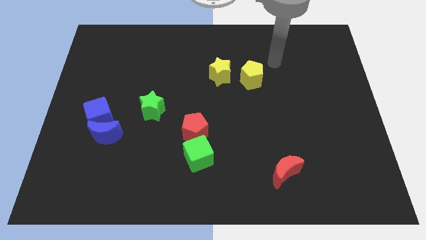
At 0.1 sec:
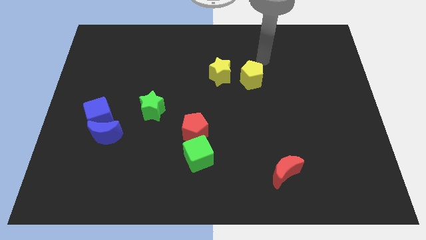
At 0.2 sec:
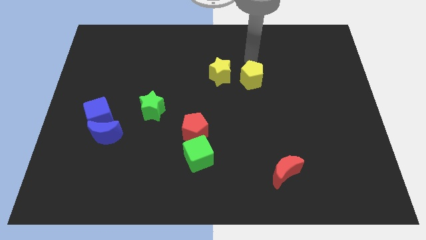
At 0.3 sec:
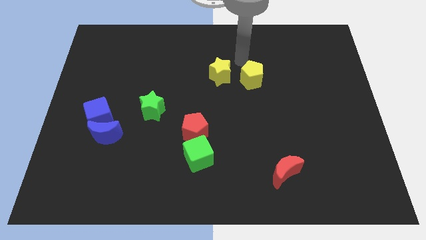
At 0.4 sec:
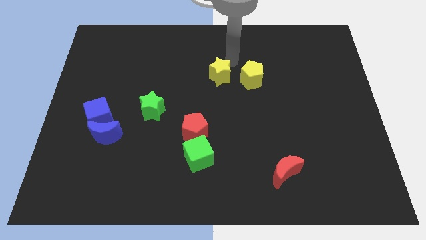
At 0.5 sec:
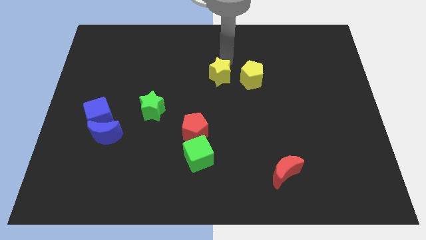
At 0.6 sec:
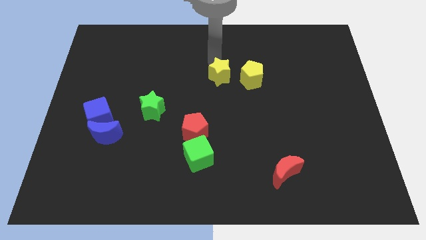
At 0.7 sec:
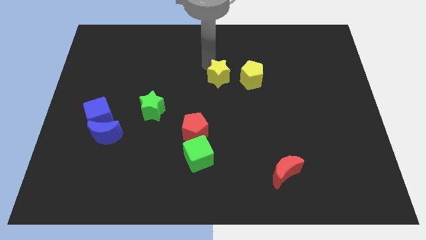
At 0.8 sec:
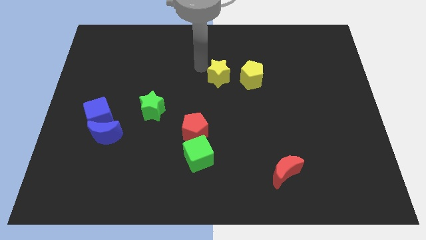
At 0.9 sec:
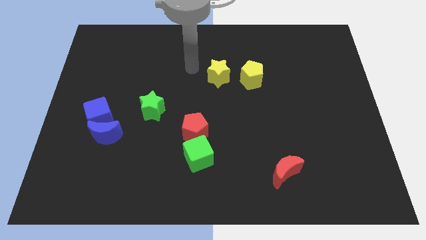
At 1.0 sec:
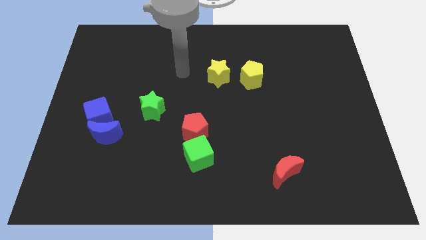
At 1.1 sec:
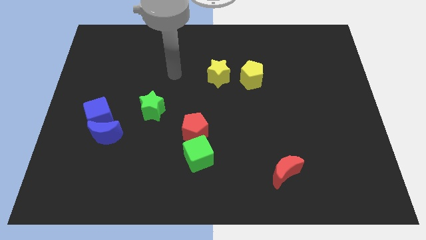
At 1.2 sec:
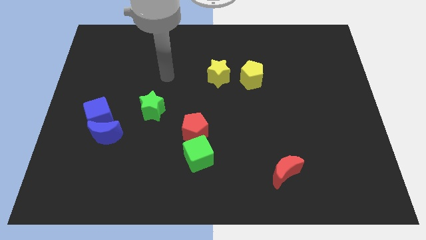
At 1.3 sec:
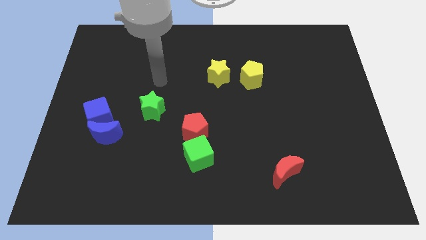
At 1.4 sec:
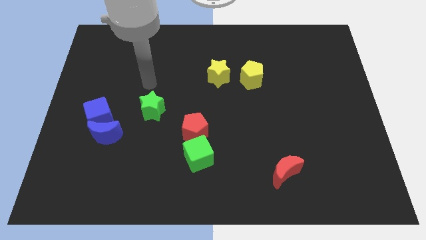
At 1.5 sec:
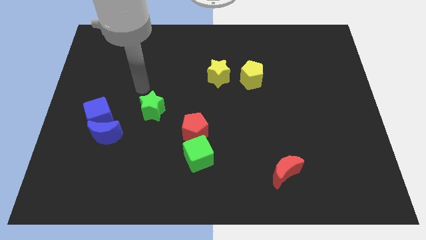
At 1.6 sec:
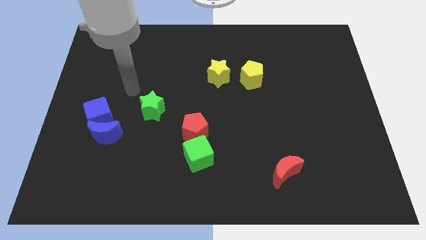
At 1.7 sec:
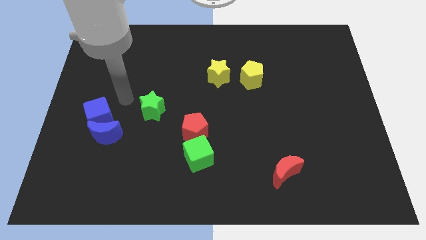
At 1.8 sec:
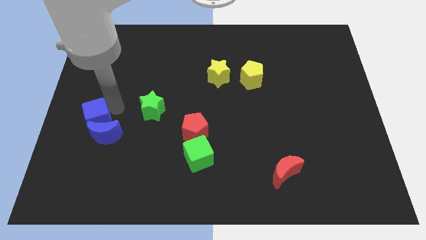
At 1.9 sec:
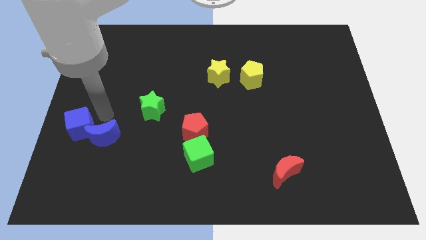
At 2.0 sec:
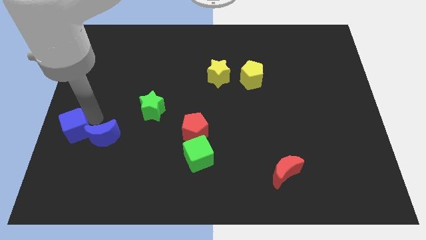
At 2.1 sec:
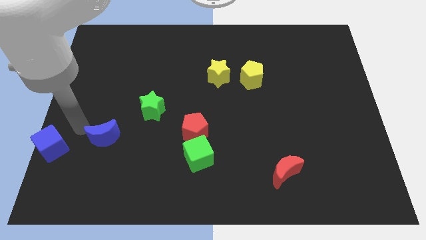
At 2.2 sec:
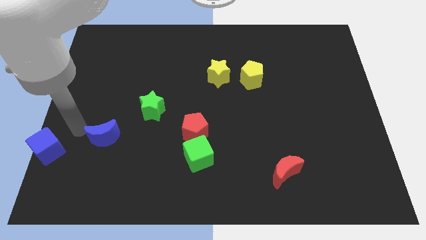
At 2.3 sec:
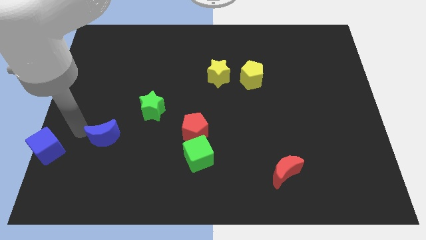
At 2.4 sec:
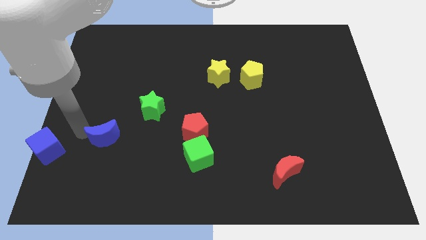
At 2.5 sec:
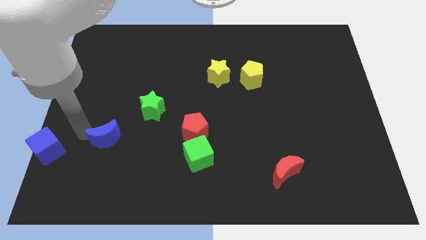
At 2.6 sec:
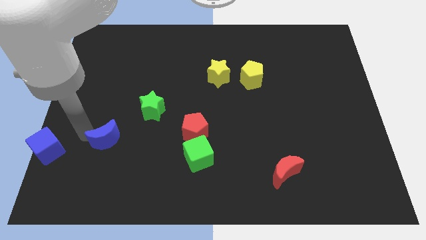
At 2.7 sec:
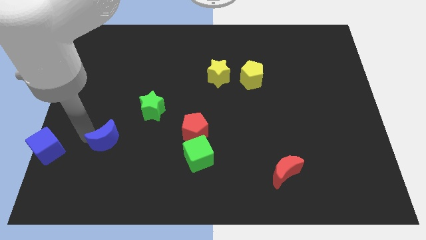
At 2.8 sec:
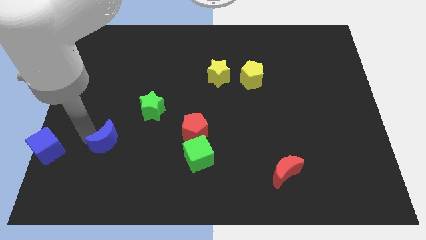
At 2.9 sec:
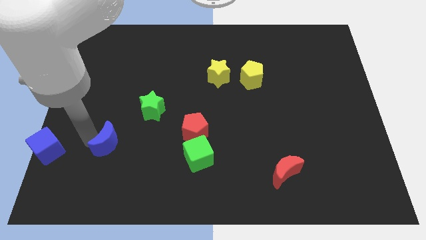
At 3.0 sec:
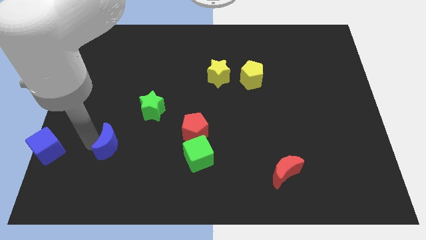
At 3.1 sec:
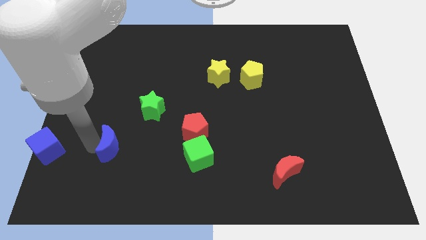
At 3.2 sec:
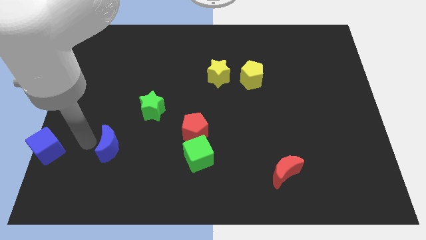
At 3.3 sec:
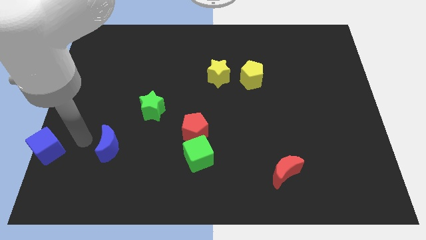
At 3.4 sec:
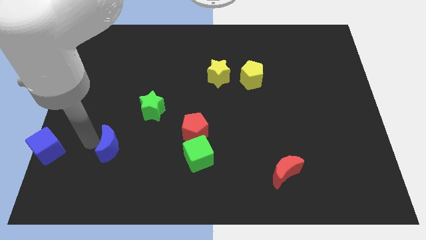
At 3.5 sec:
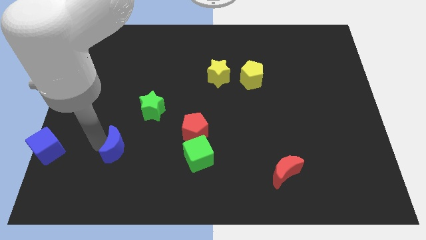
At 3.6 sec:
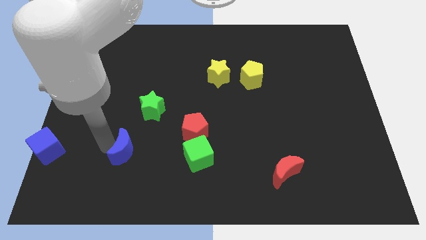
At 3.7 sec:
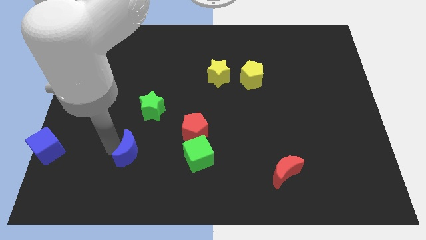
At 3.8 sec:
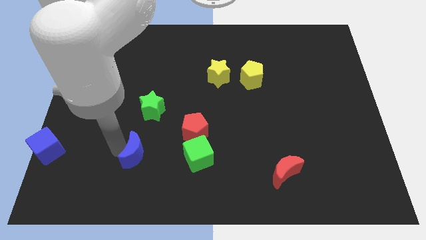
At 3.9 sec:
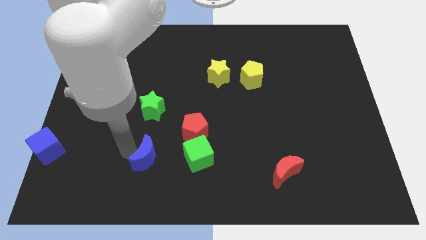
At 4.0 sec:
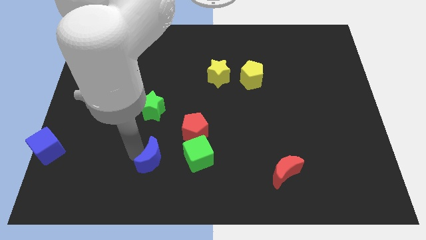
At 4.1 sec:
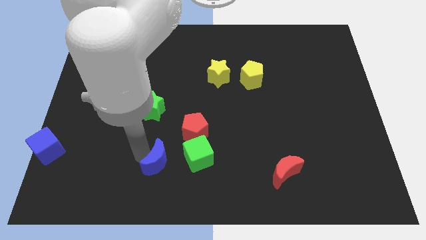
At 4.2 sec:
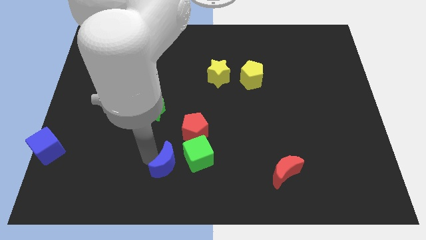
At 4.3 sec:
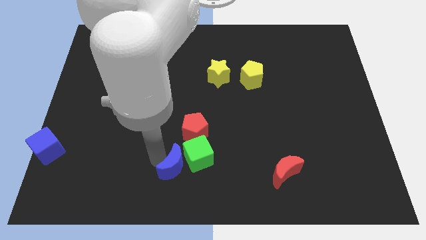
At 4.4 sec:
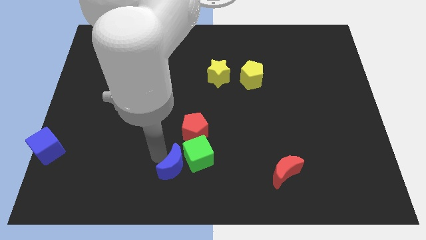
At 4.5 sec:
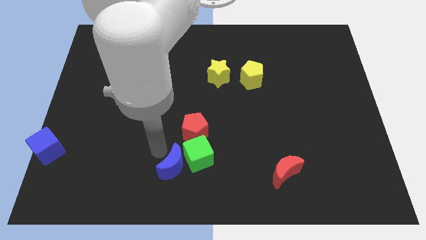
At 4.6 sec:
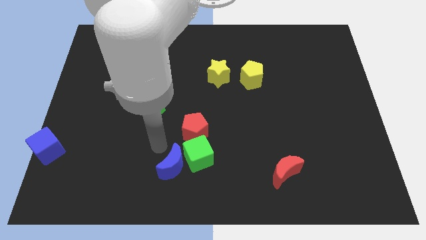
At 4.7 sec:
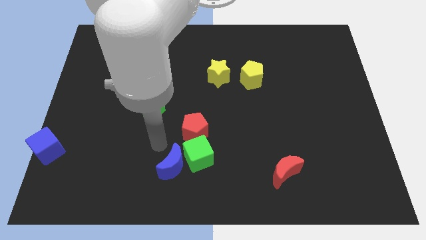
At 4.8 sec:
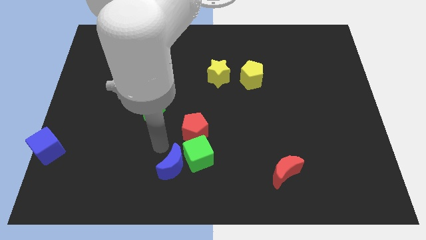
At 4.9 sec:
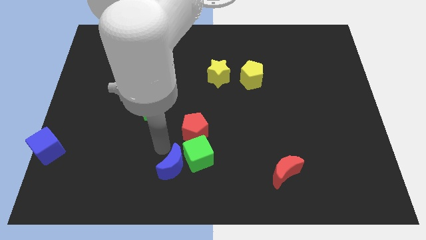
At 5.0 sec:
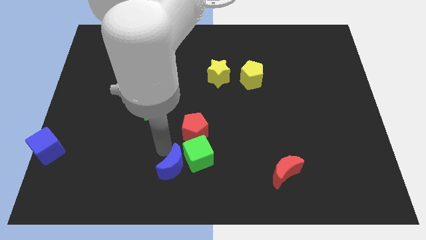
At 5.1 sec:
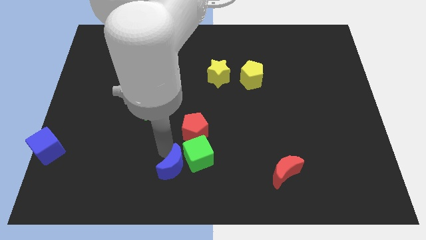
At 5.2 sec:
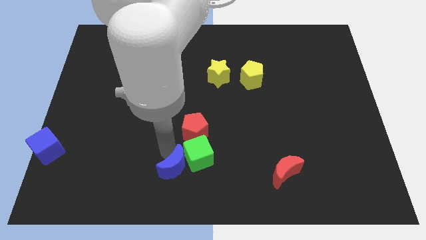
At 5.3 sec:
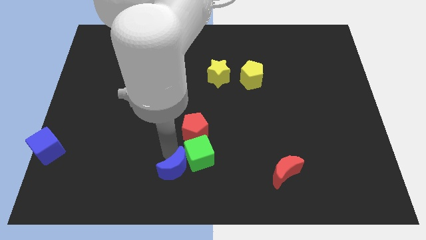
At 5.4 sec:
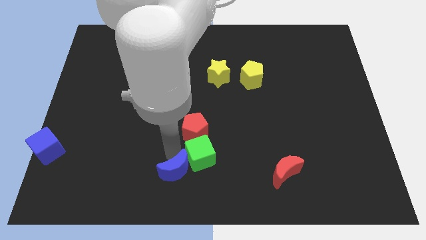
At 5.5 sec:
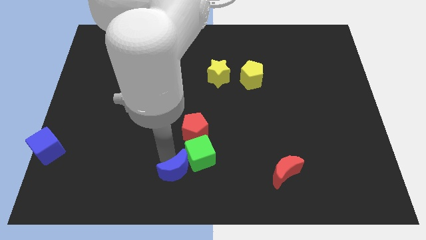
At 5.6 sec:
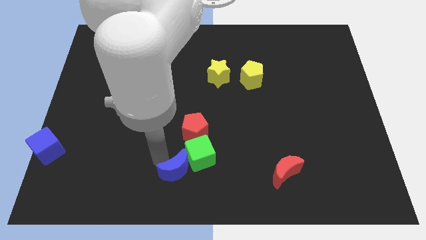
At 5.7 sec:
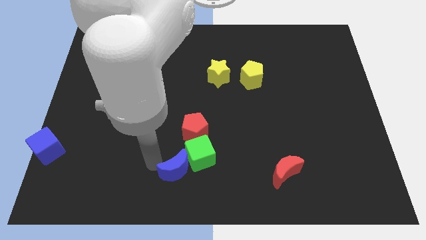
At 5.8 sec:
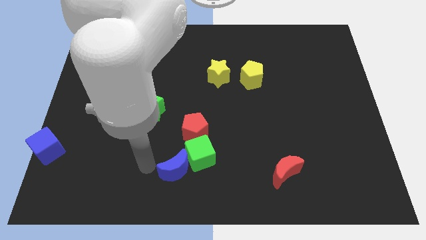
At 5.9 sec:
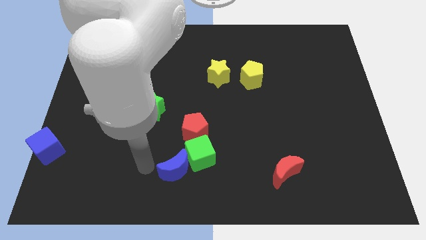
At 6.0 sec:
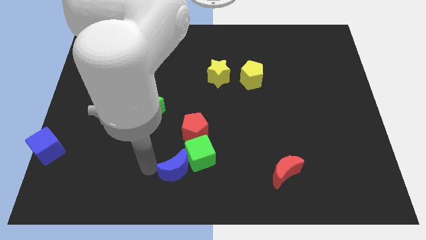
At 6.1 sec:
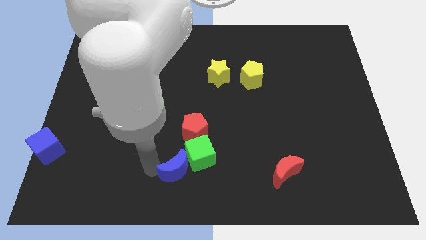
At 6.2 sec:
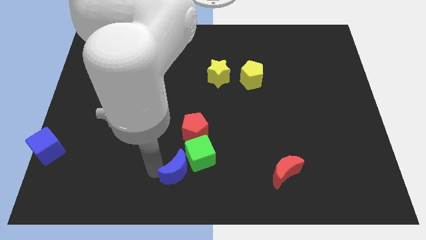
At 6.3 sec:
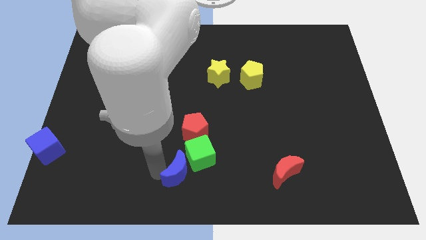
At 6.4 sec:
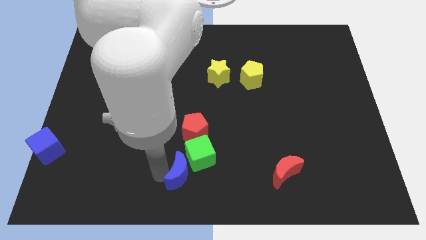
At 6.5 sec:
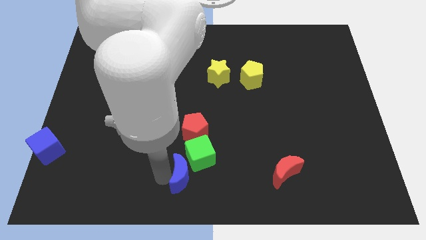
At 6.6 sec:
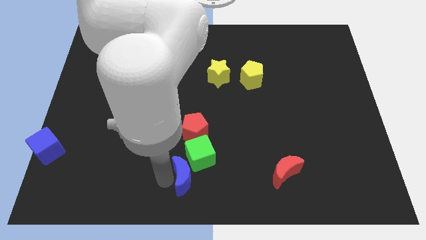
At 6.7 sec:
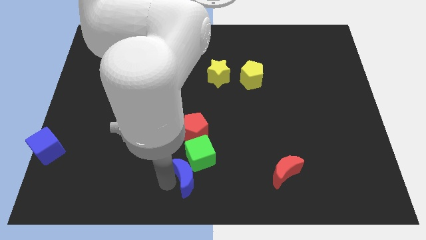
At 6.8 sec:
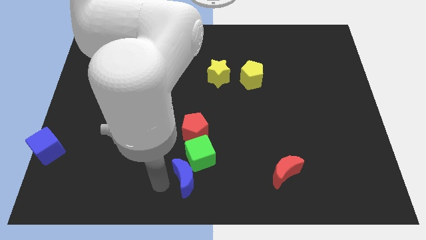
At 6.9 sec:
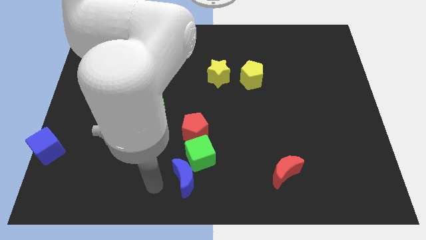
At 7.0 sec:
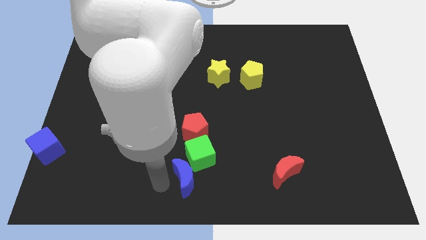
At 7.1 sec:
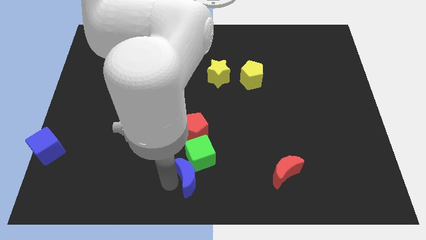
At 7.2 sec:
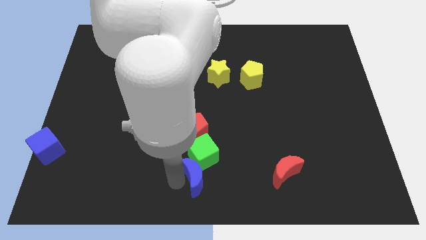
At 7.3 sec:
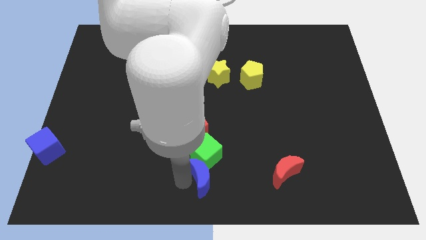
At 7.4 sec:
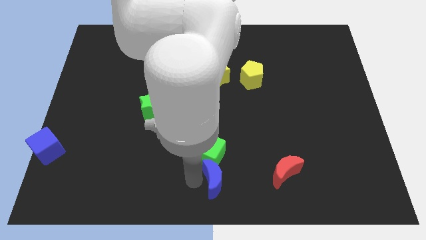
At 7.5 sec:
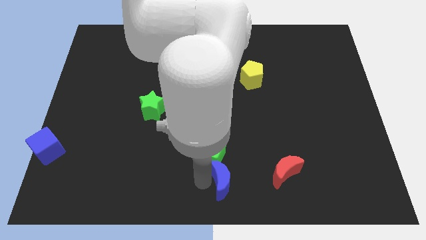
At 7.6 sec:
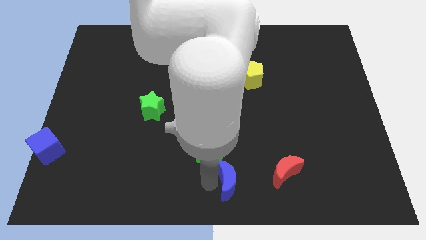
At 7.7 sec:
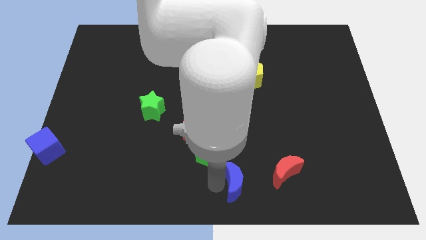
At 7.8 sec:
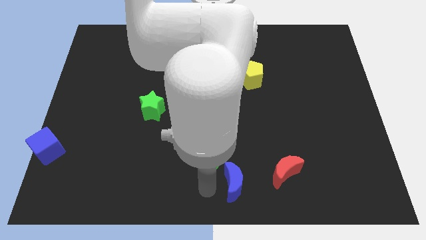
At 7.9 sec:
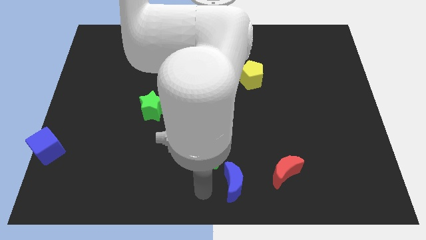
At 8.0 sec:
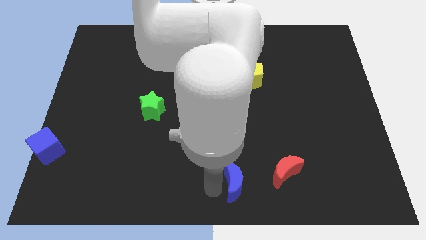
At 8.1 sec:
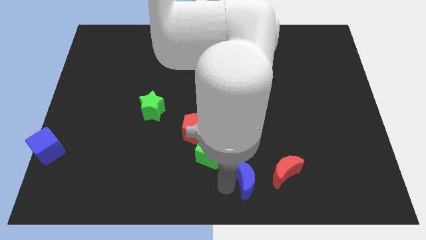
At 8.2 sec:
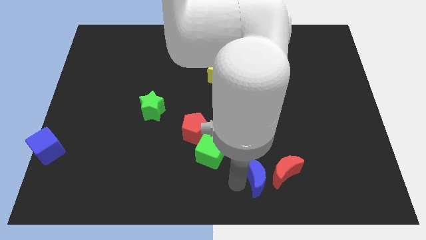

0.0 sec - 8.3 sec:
push the blue moon next to the red moon
